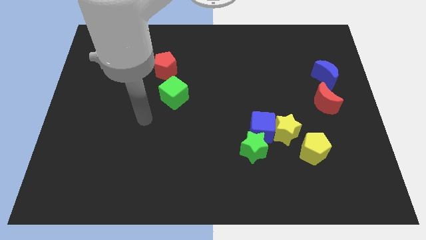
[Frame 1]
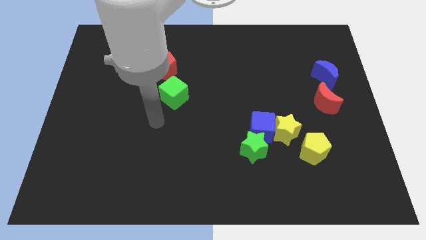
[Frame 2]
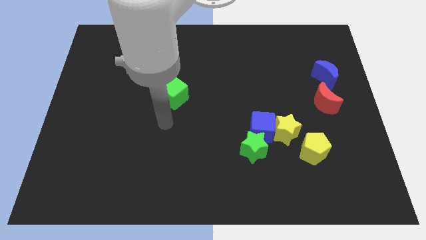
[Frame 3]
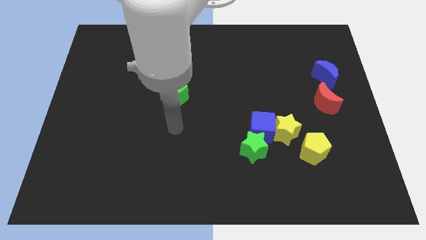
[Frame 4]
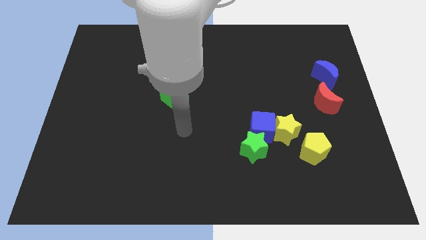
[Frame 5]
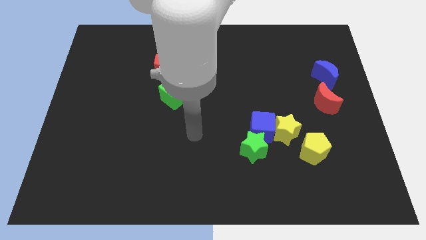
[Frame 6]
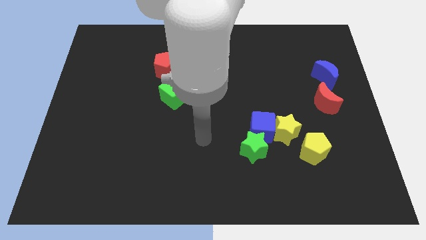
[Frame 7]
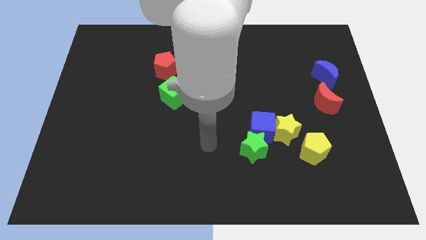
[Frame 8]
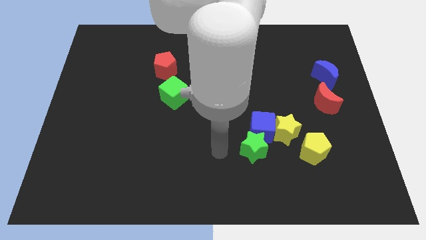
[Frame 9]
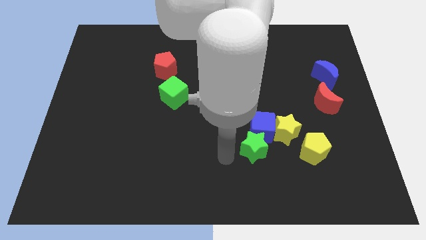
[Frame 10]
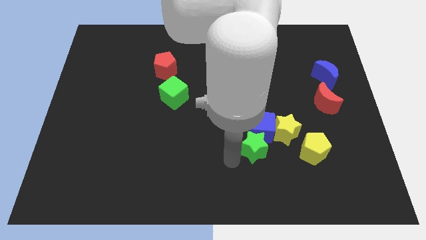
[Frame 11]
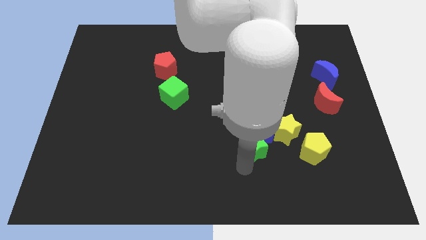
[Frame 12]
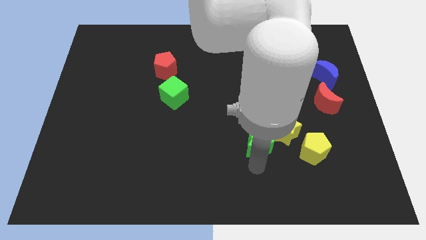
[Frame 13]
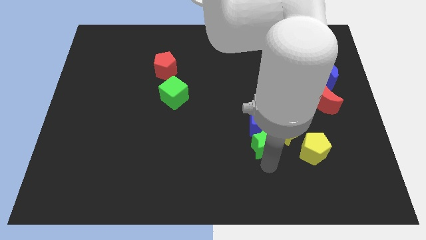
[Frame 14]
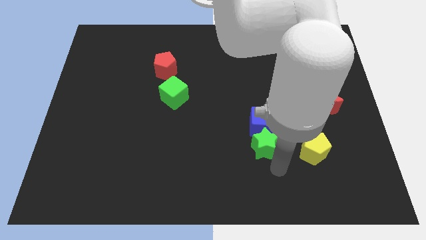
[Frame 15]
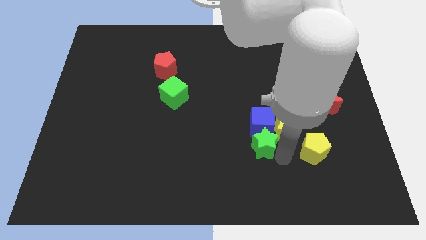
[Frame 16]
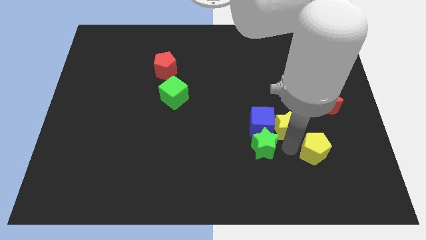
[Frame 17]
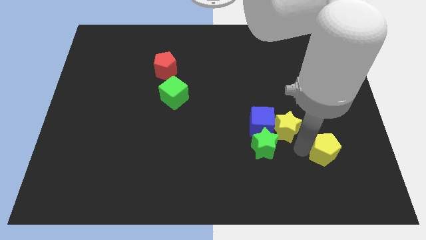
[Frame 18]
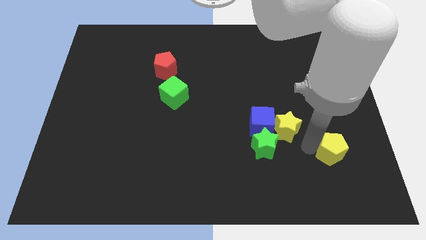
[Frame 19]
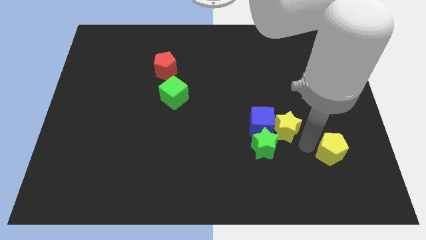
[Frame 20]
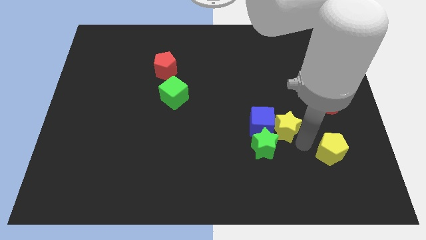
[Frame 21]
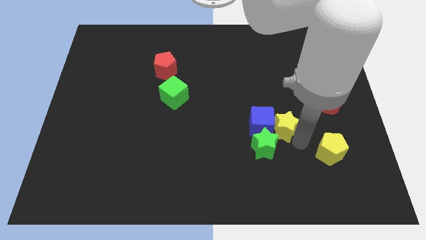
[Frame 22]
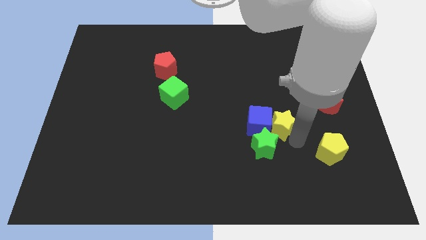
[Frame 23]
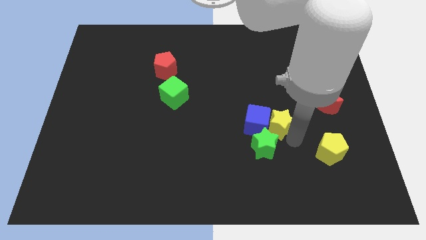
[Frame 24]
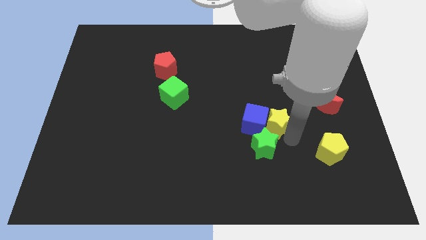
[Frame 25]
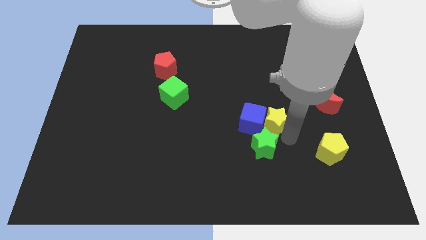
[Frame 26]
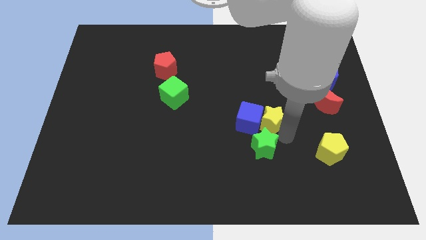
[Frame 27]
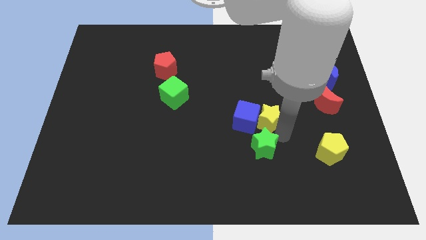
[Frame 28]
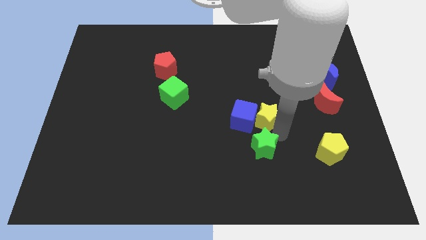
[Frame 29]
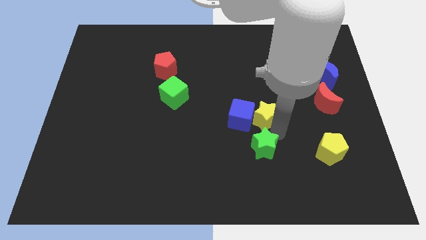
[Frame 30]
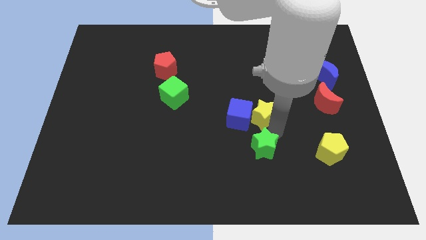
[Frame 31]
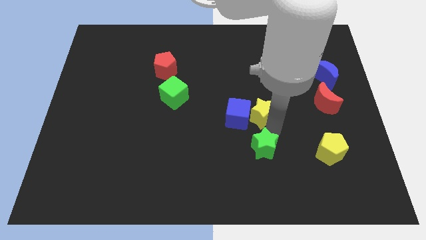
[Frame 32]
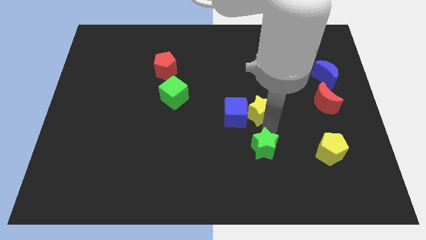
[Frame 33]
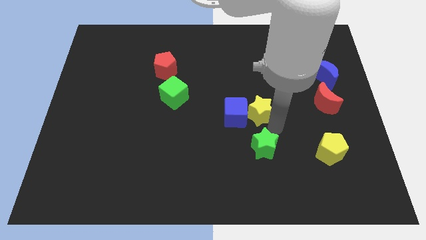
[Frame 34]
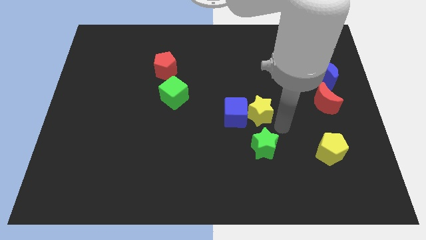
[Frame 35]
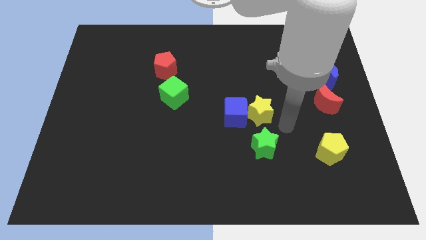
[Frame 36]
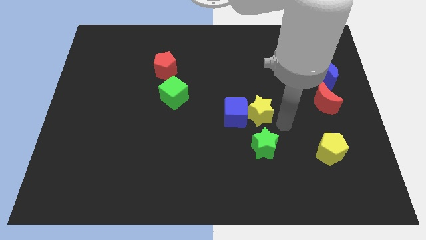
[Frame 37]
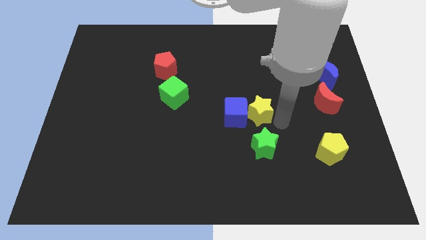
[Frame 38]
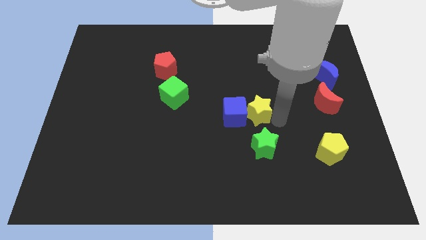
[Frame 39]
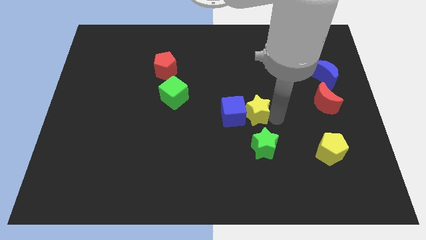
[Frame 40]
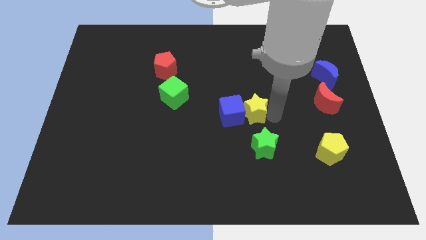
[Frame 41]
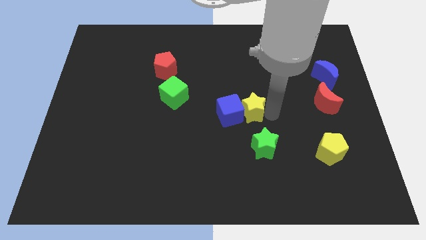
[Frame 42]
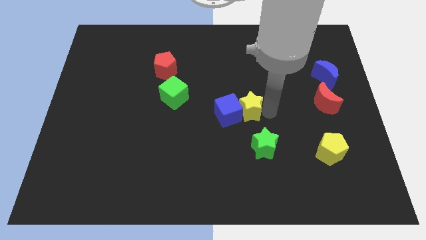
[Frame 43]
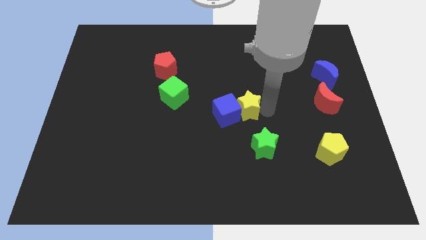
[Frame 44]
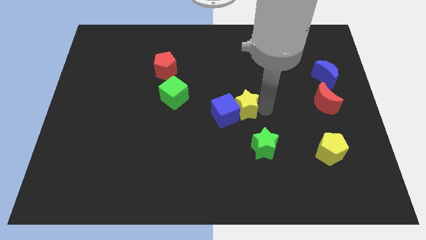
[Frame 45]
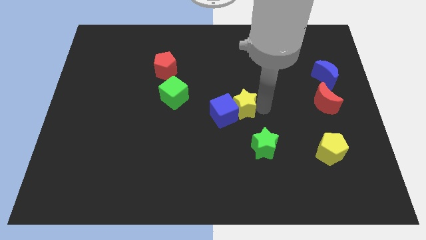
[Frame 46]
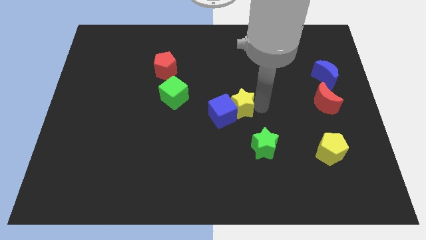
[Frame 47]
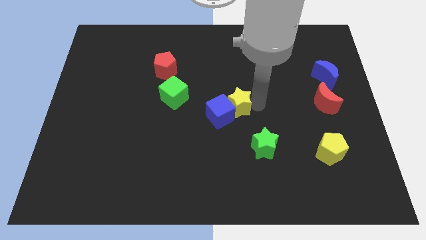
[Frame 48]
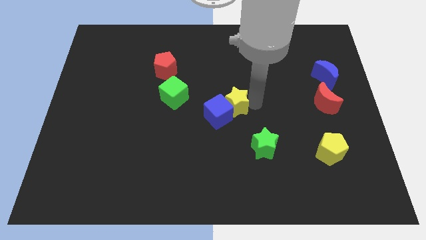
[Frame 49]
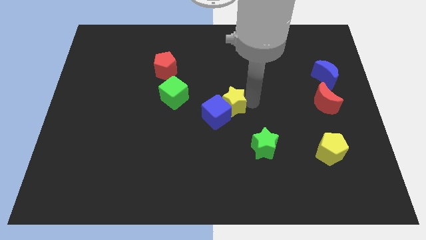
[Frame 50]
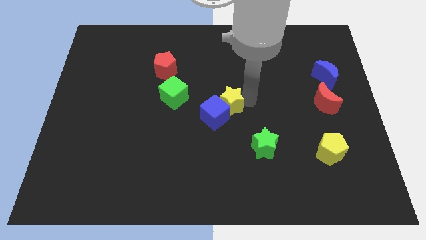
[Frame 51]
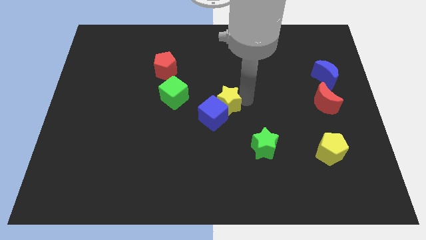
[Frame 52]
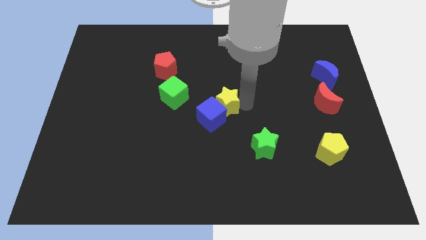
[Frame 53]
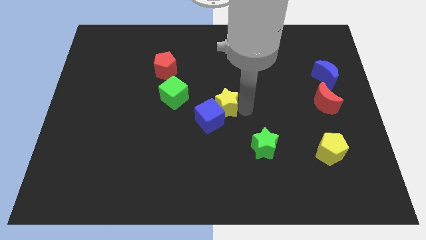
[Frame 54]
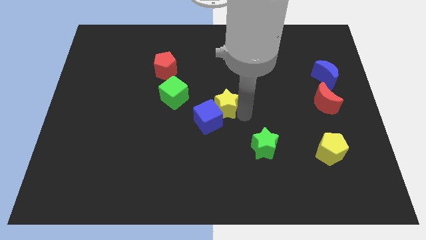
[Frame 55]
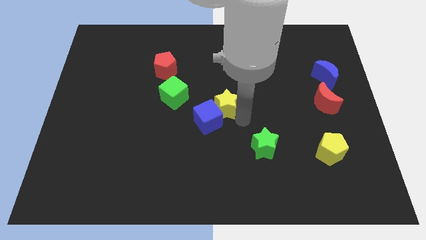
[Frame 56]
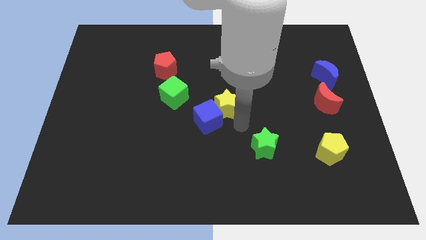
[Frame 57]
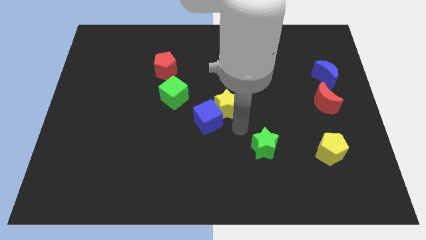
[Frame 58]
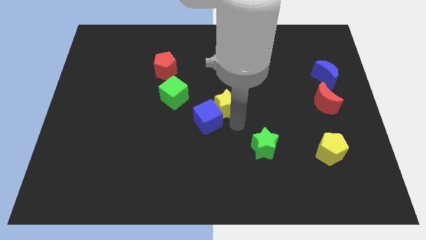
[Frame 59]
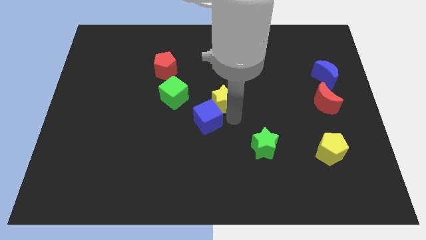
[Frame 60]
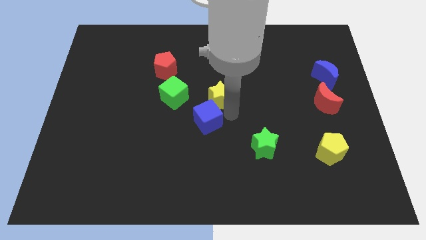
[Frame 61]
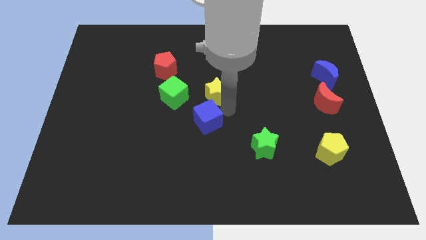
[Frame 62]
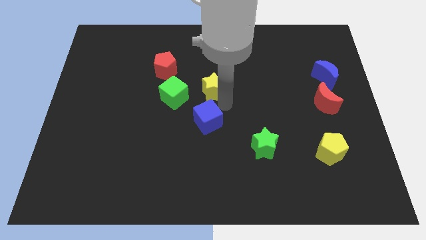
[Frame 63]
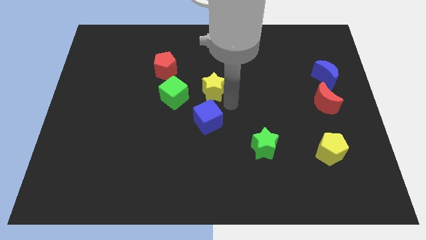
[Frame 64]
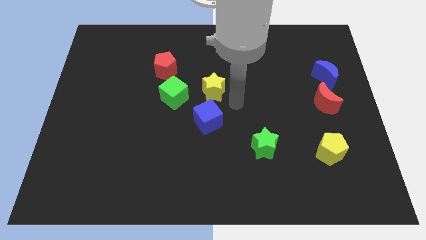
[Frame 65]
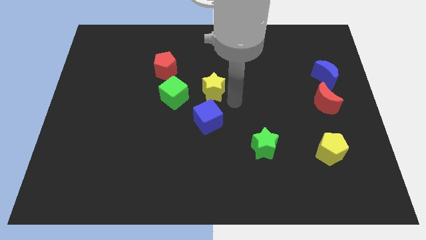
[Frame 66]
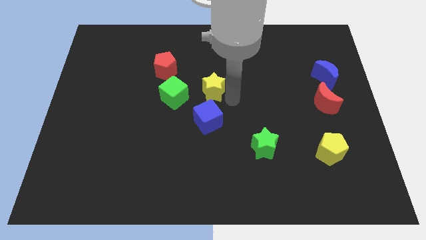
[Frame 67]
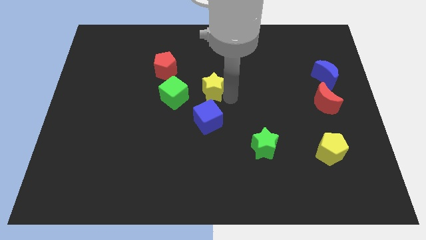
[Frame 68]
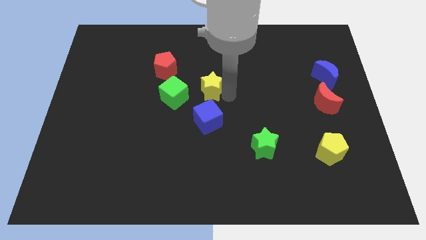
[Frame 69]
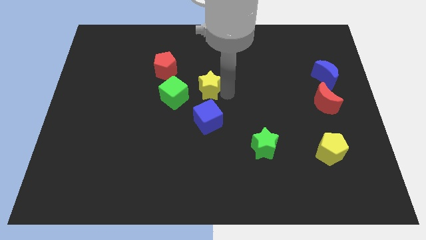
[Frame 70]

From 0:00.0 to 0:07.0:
push the yellow star to the top right side of the green cube
